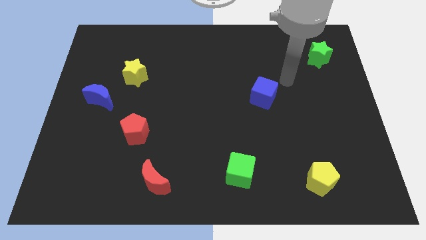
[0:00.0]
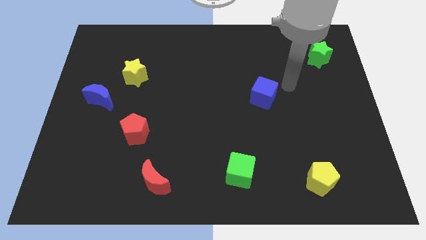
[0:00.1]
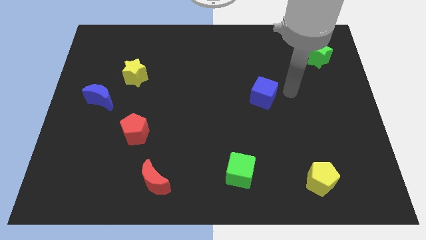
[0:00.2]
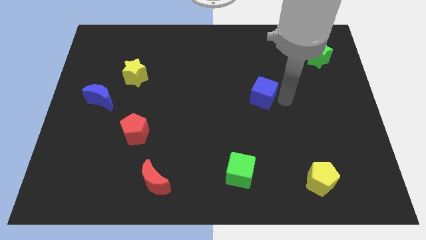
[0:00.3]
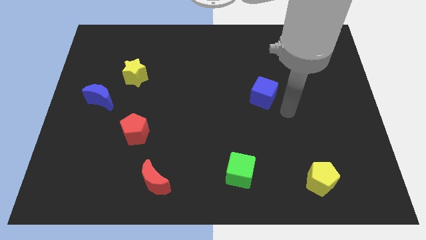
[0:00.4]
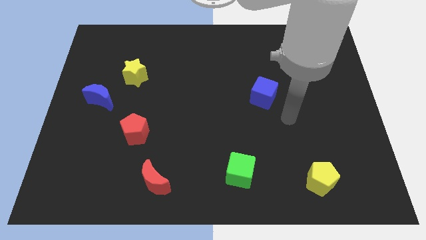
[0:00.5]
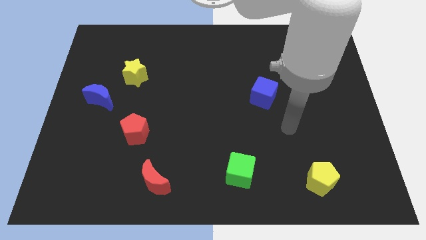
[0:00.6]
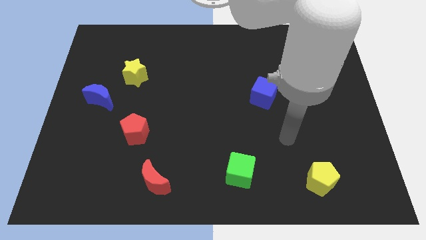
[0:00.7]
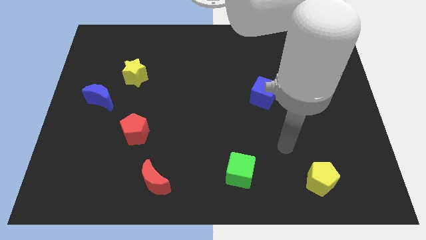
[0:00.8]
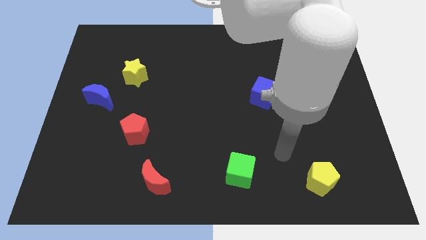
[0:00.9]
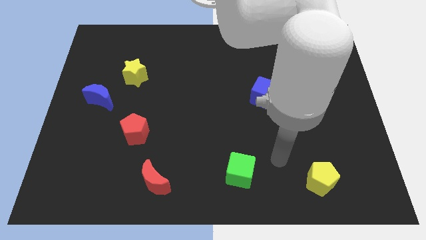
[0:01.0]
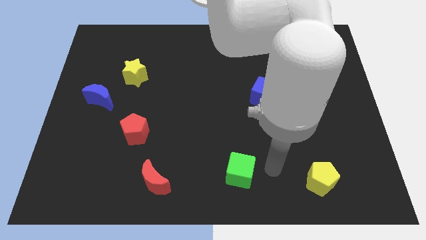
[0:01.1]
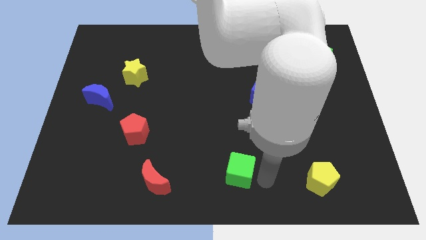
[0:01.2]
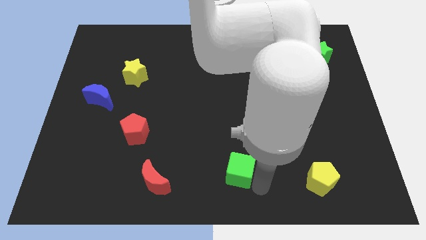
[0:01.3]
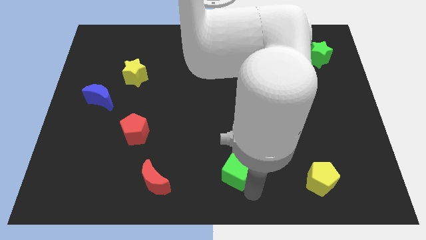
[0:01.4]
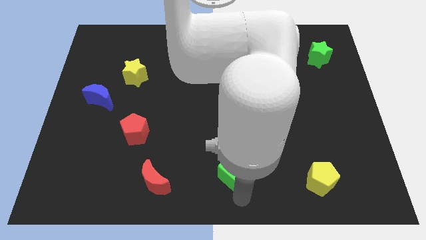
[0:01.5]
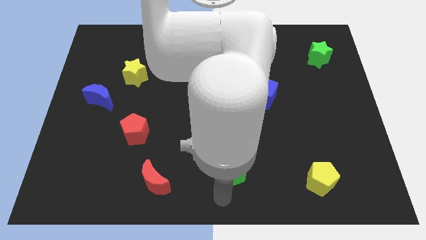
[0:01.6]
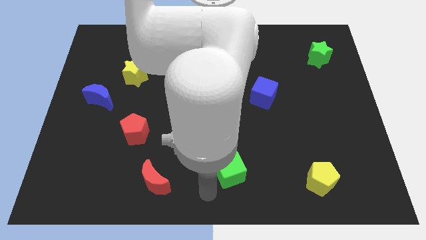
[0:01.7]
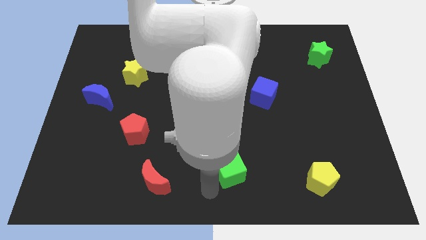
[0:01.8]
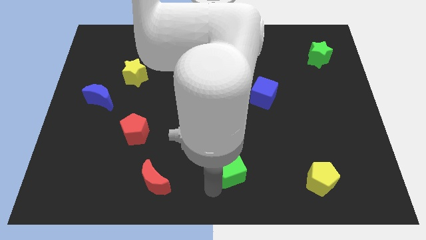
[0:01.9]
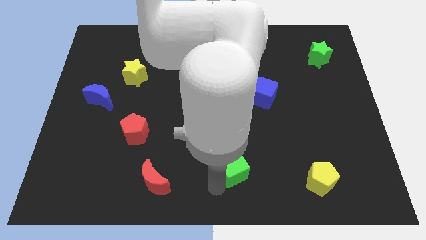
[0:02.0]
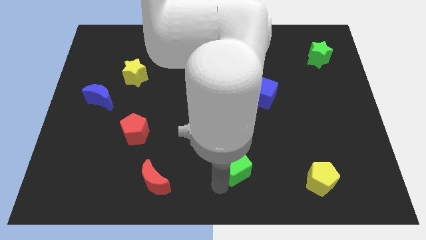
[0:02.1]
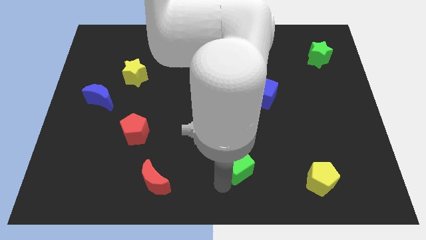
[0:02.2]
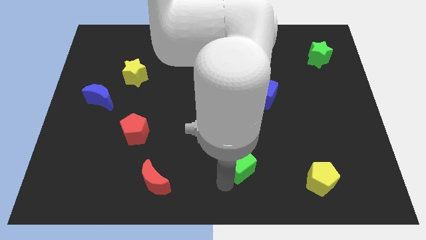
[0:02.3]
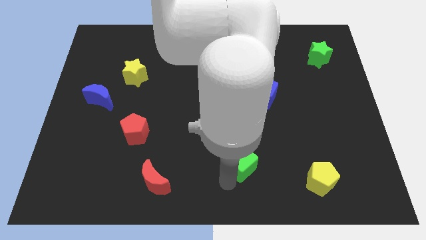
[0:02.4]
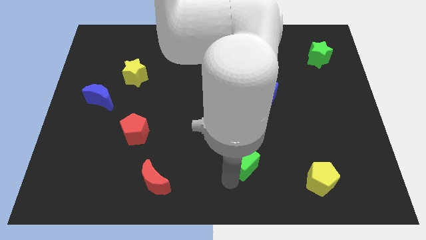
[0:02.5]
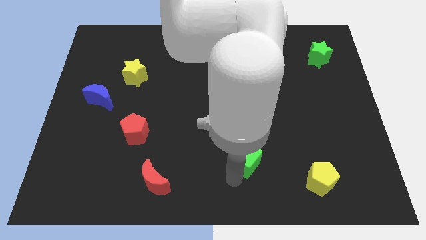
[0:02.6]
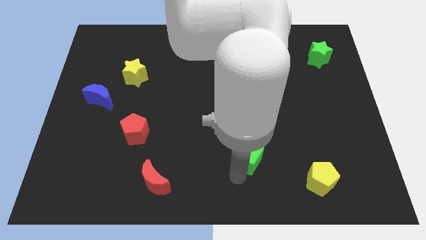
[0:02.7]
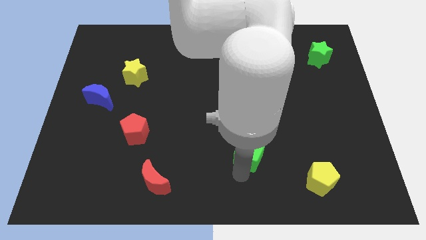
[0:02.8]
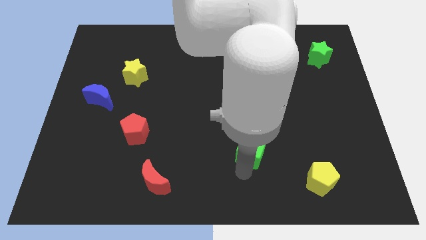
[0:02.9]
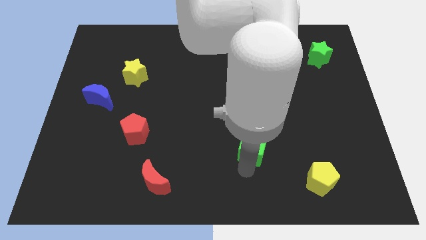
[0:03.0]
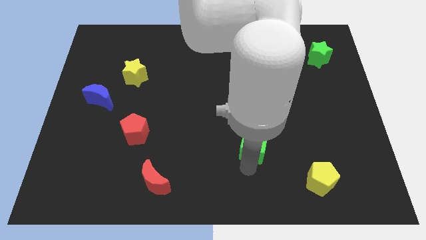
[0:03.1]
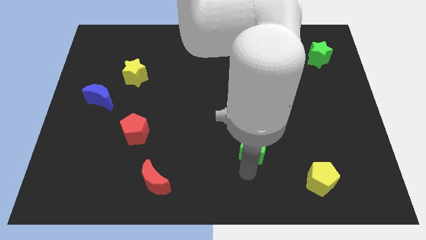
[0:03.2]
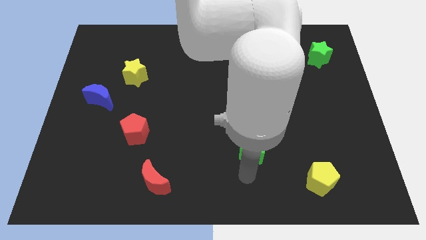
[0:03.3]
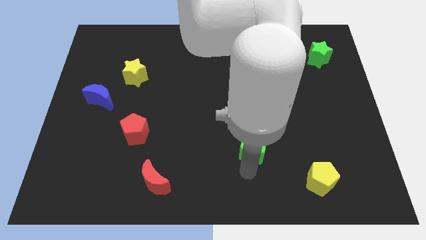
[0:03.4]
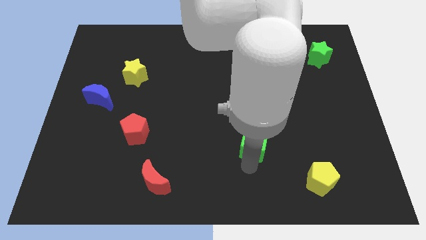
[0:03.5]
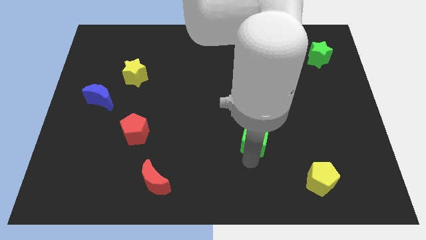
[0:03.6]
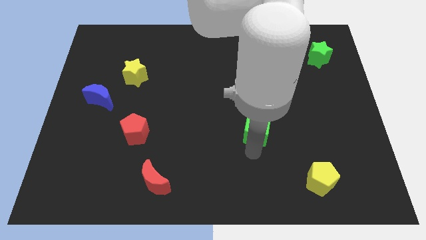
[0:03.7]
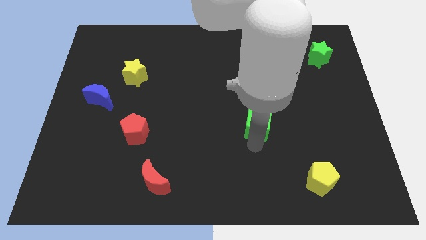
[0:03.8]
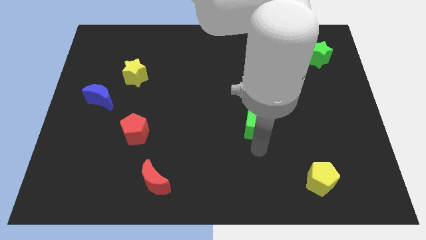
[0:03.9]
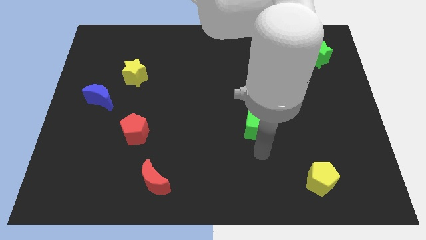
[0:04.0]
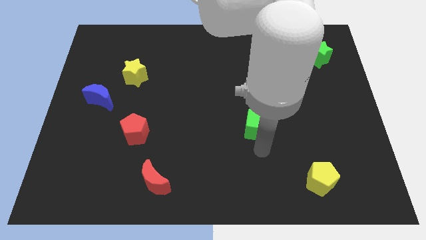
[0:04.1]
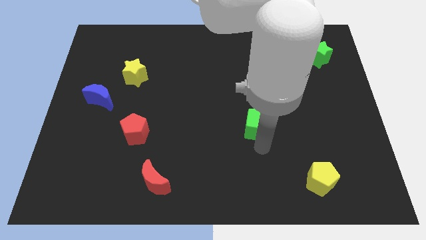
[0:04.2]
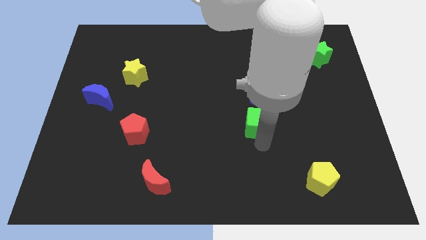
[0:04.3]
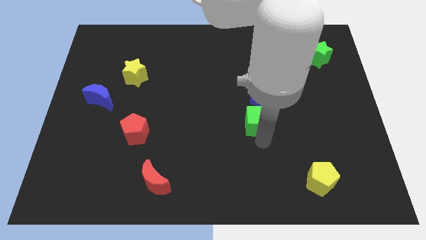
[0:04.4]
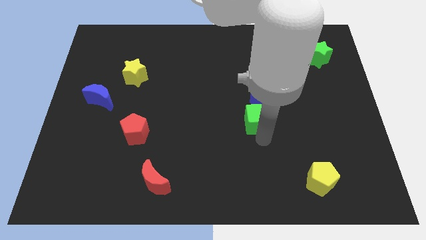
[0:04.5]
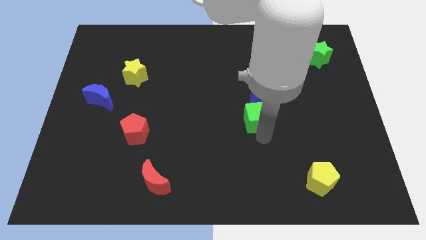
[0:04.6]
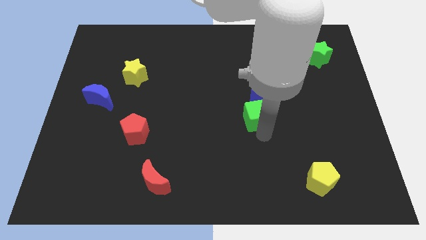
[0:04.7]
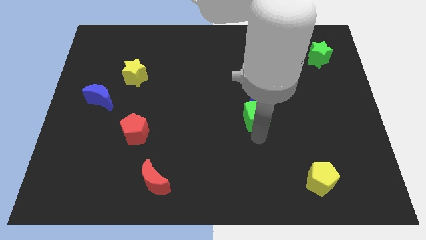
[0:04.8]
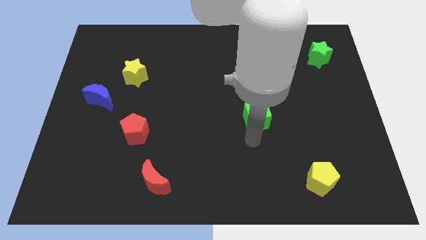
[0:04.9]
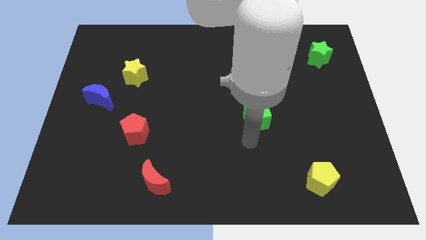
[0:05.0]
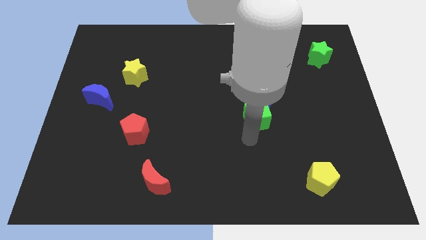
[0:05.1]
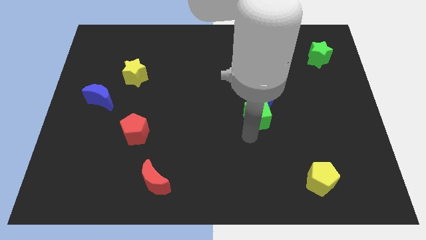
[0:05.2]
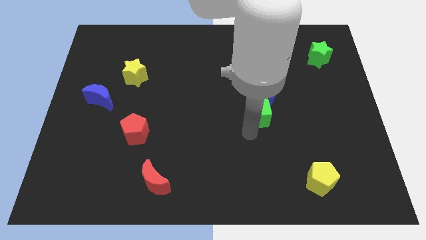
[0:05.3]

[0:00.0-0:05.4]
put the green cube close to the blue cube

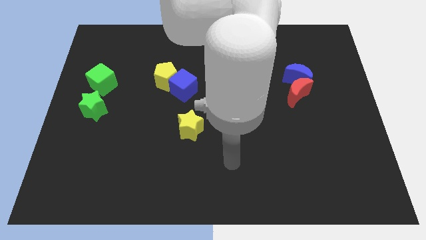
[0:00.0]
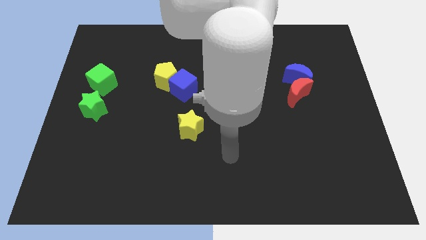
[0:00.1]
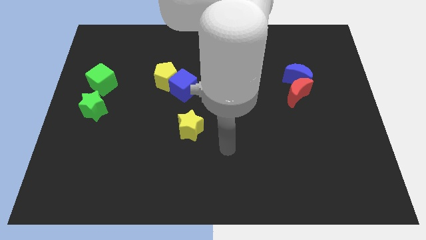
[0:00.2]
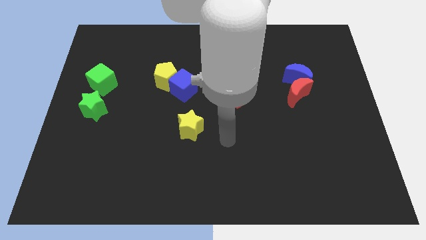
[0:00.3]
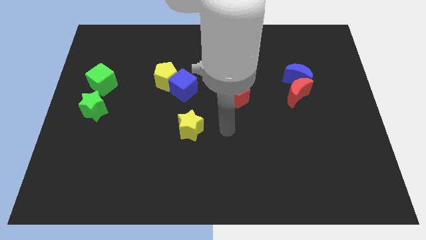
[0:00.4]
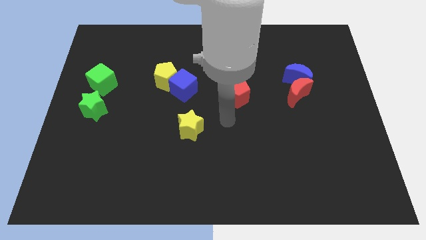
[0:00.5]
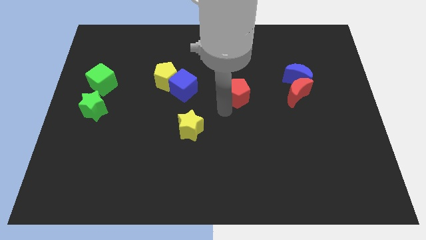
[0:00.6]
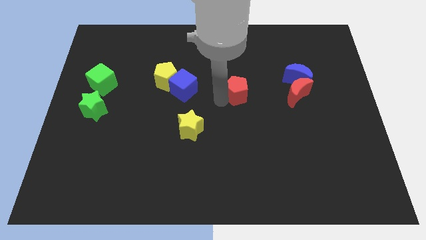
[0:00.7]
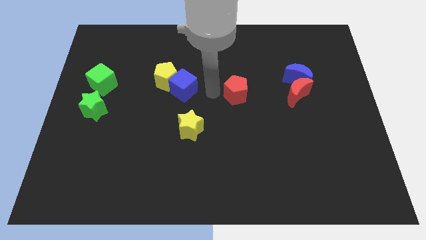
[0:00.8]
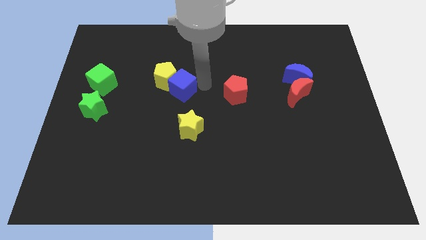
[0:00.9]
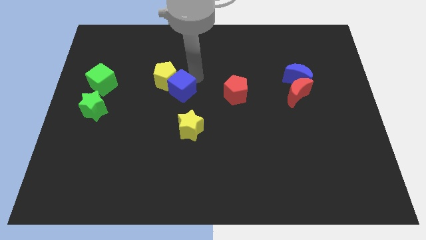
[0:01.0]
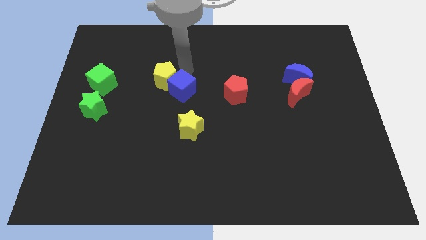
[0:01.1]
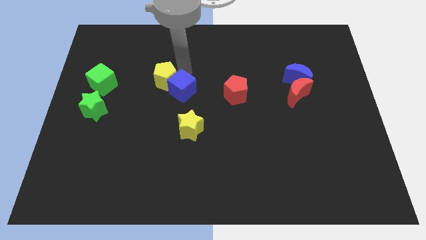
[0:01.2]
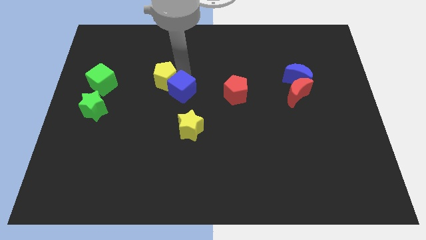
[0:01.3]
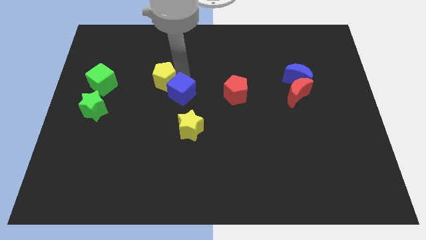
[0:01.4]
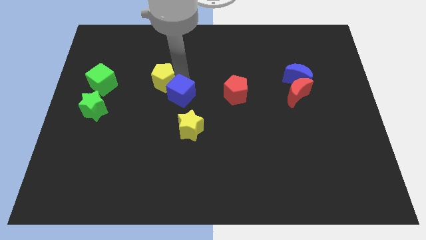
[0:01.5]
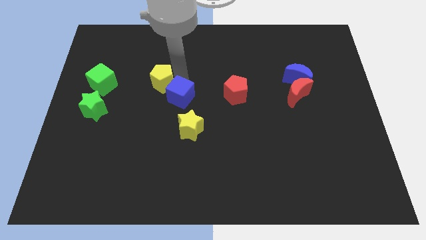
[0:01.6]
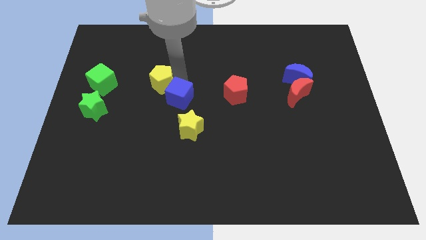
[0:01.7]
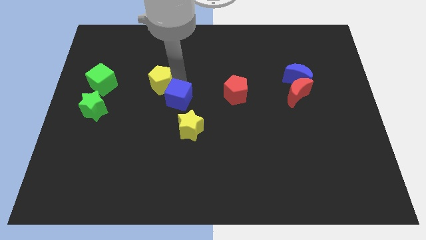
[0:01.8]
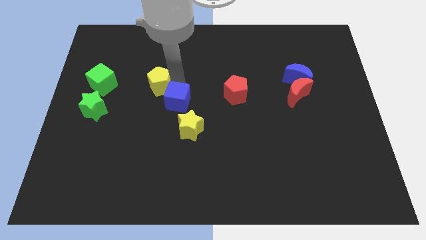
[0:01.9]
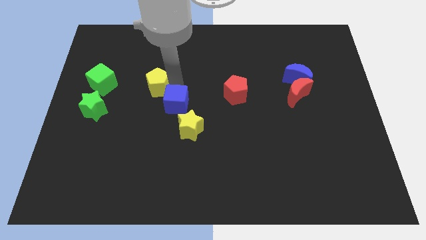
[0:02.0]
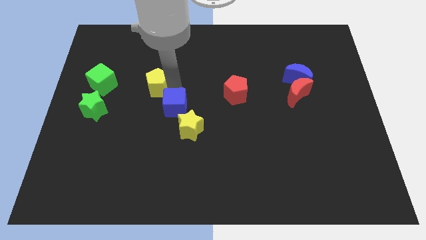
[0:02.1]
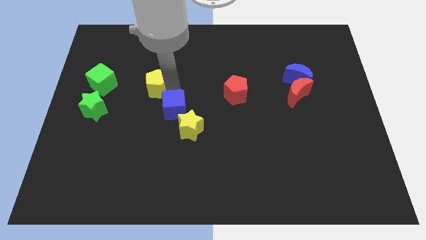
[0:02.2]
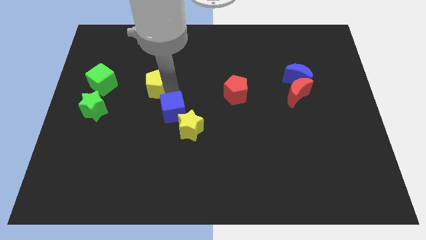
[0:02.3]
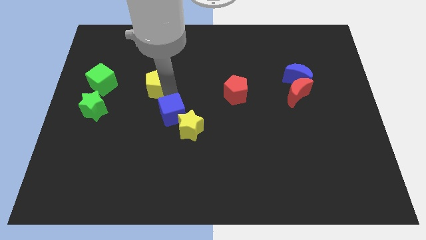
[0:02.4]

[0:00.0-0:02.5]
move the blue cube to the yellow star
